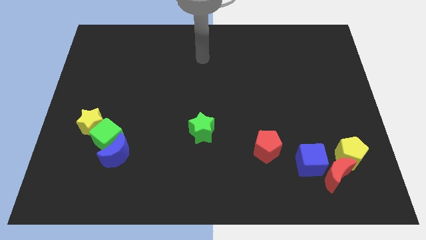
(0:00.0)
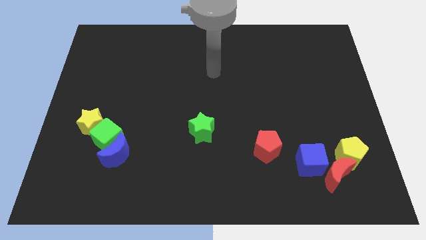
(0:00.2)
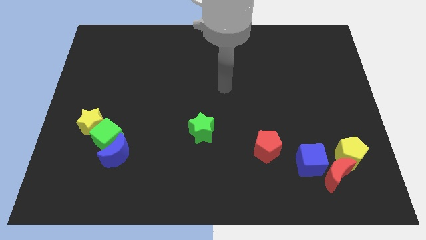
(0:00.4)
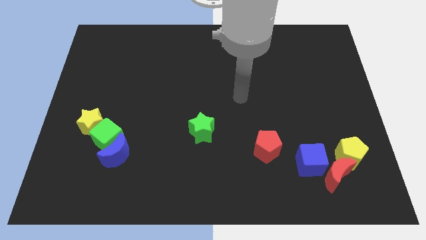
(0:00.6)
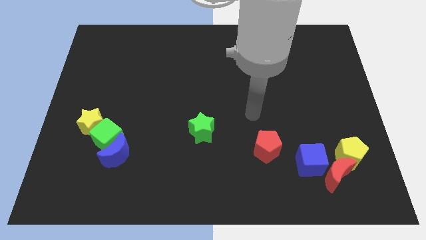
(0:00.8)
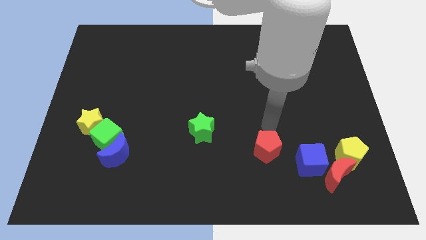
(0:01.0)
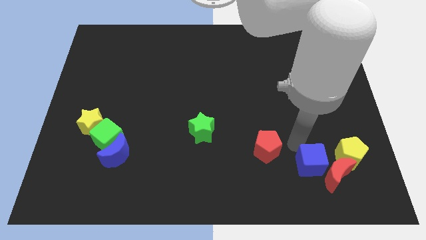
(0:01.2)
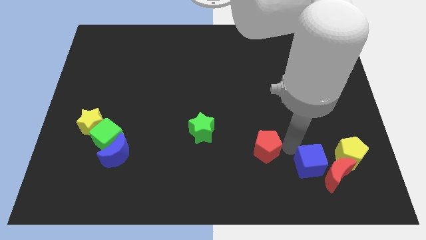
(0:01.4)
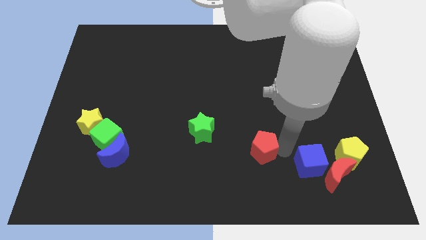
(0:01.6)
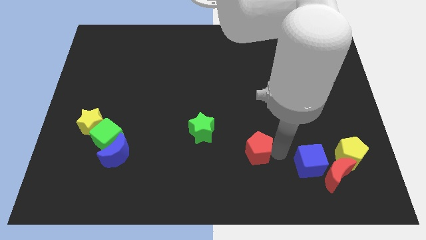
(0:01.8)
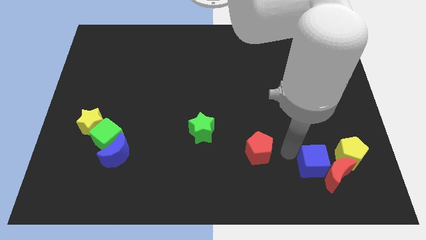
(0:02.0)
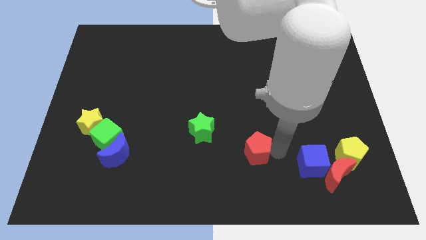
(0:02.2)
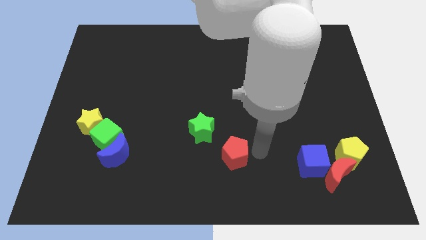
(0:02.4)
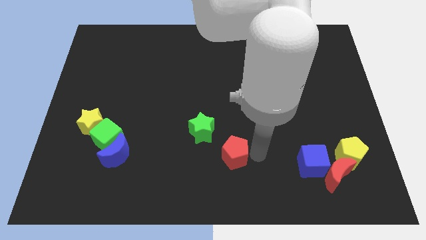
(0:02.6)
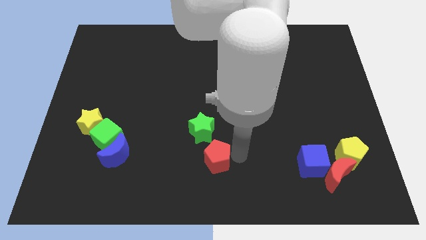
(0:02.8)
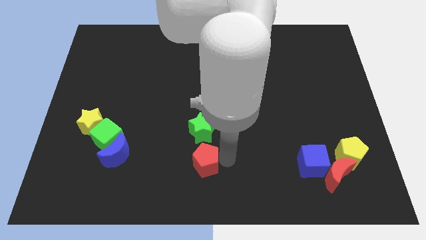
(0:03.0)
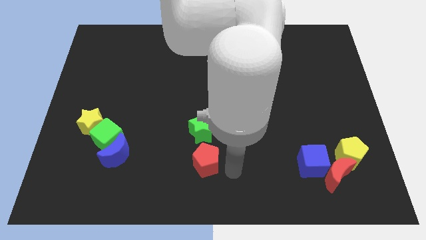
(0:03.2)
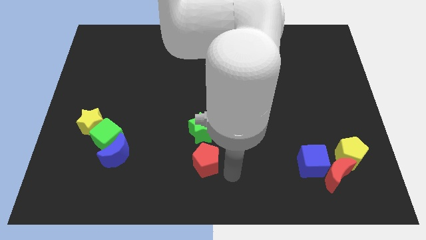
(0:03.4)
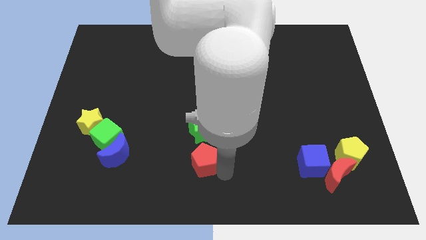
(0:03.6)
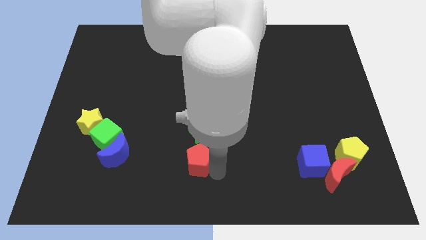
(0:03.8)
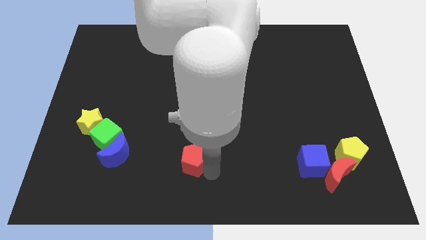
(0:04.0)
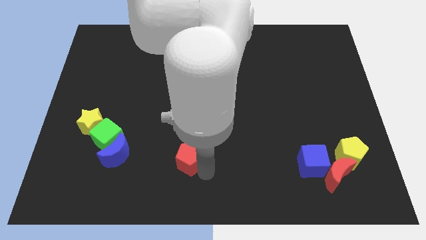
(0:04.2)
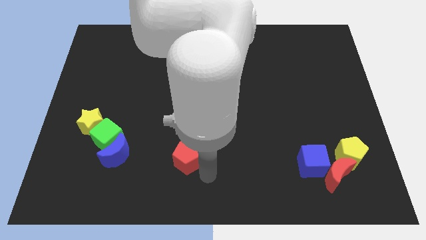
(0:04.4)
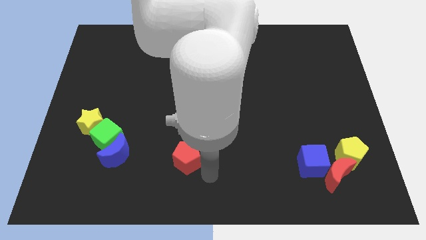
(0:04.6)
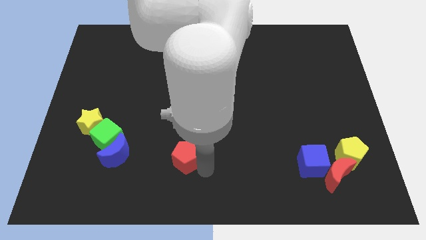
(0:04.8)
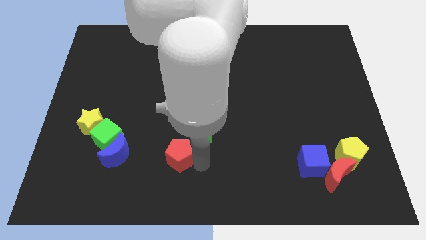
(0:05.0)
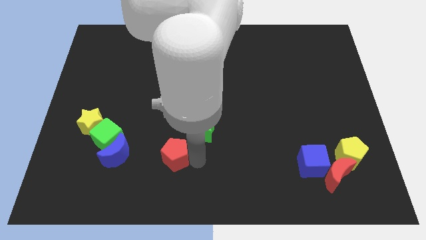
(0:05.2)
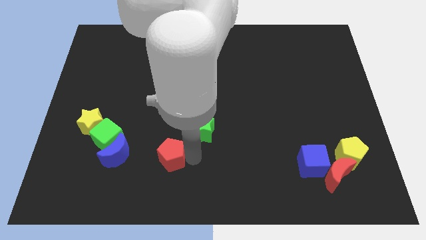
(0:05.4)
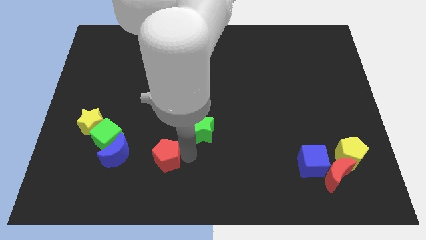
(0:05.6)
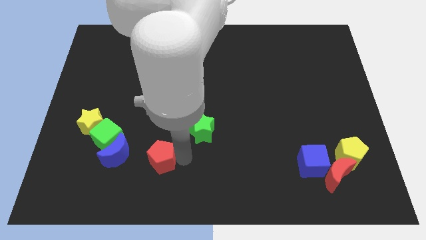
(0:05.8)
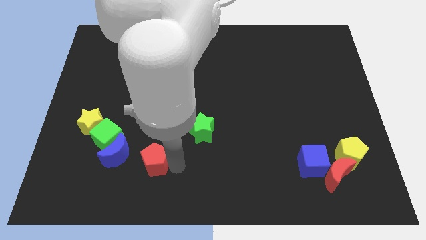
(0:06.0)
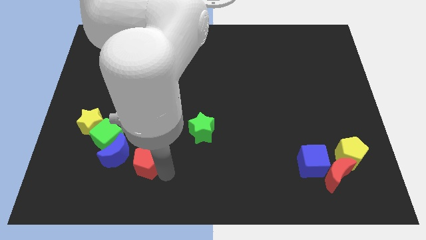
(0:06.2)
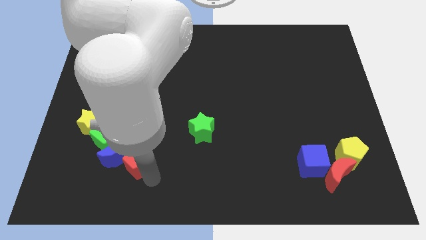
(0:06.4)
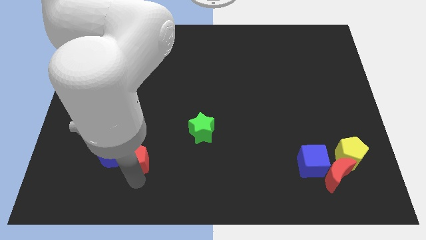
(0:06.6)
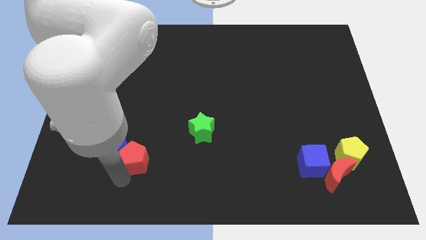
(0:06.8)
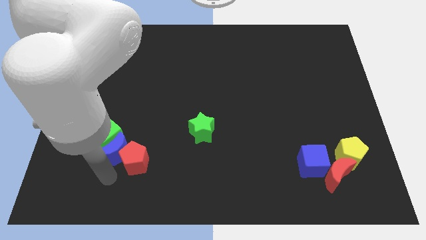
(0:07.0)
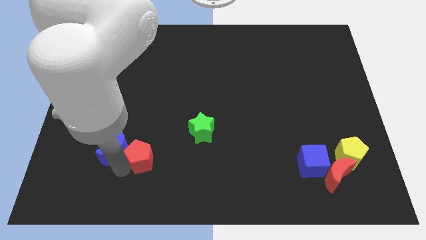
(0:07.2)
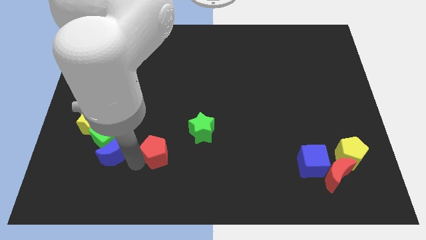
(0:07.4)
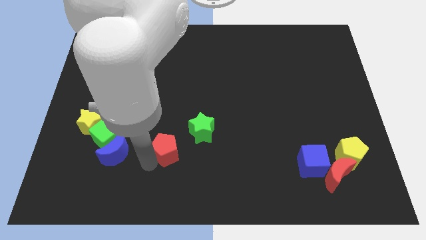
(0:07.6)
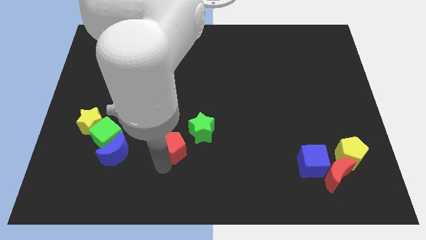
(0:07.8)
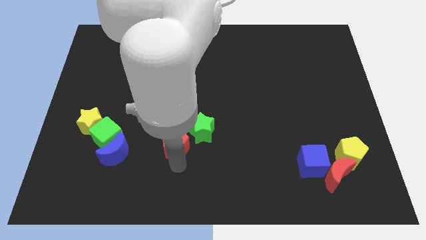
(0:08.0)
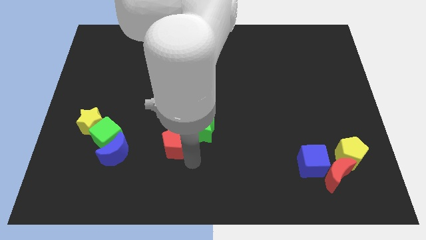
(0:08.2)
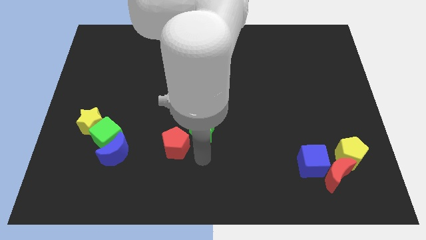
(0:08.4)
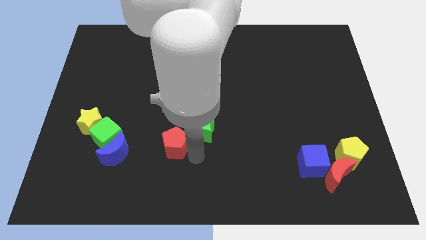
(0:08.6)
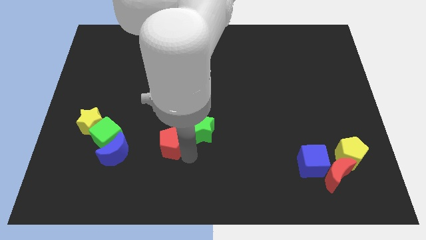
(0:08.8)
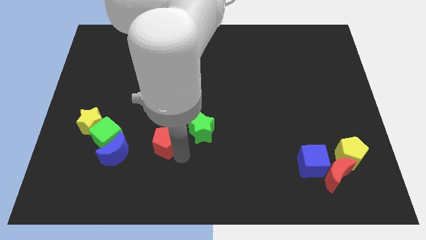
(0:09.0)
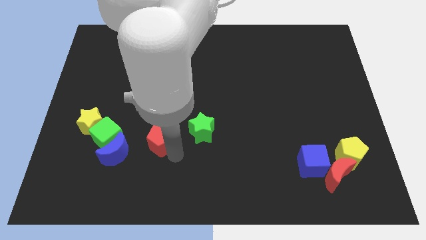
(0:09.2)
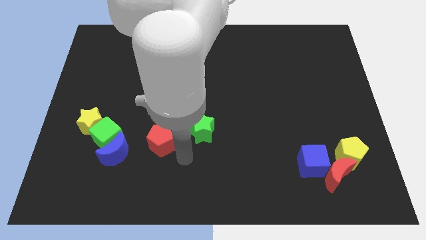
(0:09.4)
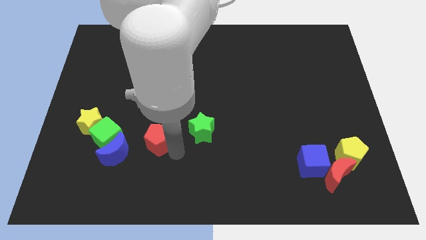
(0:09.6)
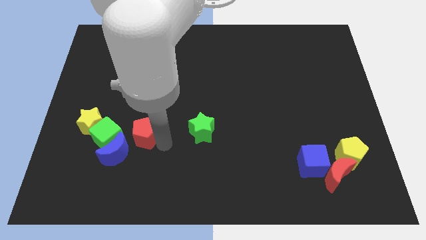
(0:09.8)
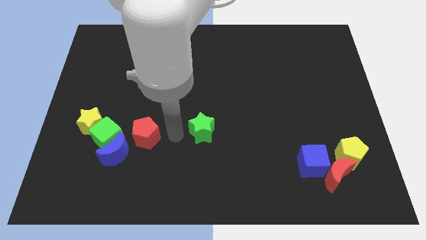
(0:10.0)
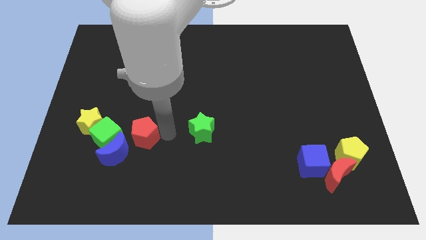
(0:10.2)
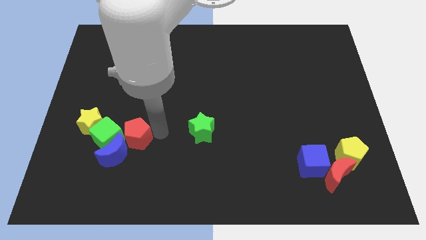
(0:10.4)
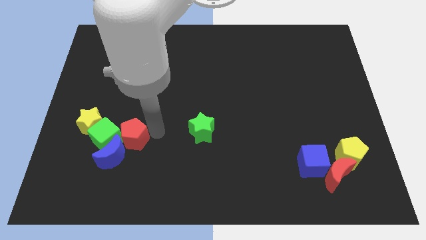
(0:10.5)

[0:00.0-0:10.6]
put the red pentagon next to the green cube

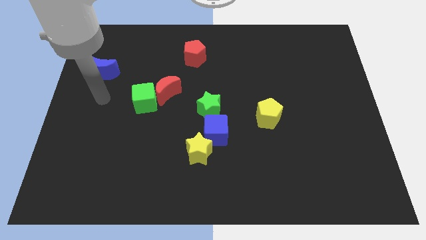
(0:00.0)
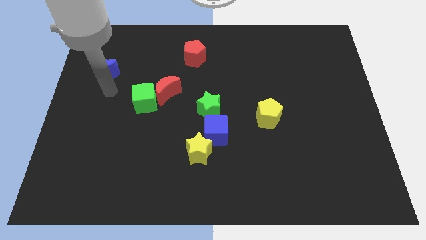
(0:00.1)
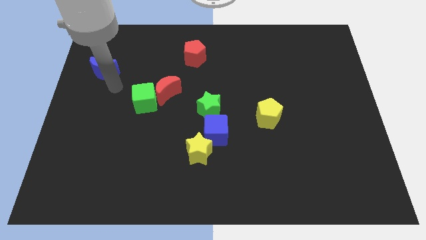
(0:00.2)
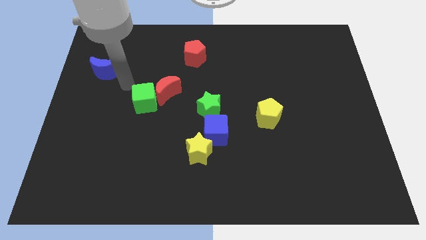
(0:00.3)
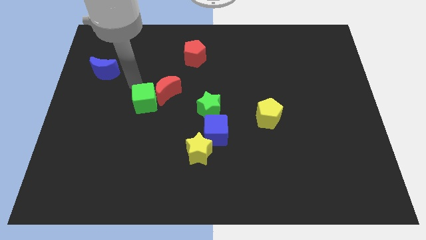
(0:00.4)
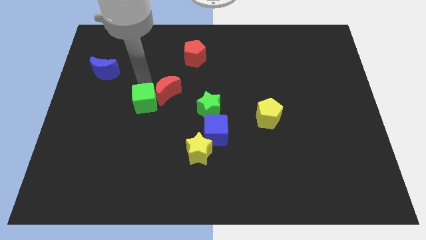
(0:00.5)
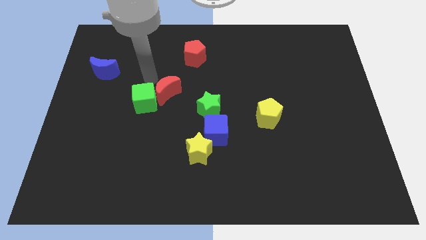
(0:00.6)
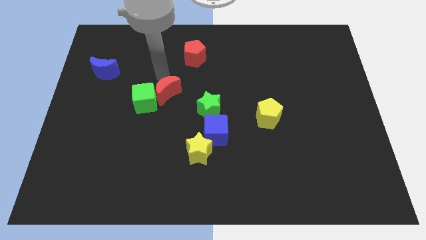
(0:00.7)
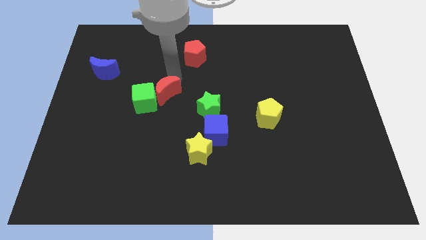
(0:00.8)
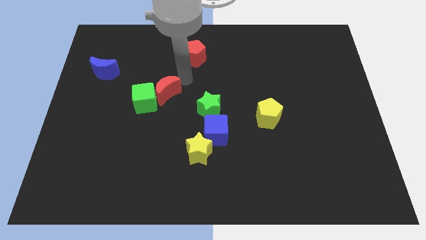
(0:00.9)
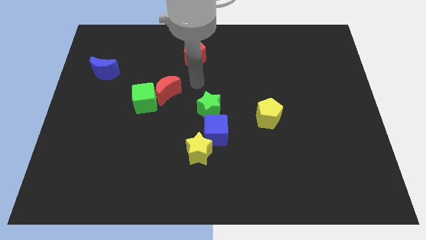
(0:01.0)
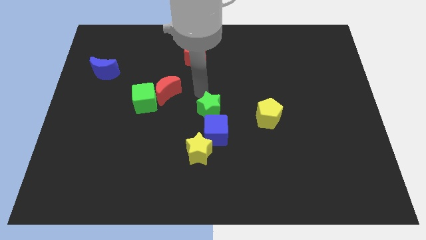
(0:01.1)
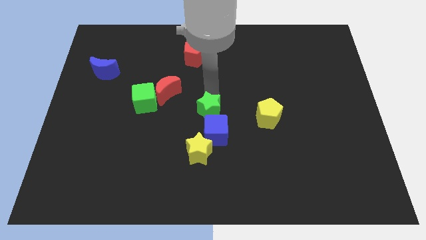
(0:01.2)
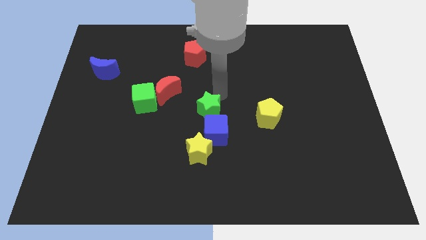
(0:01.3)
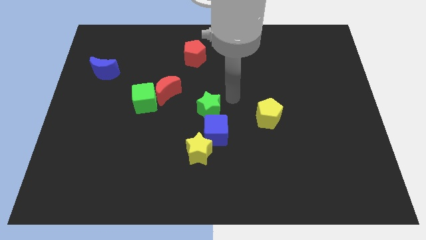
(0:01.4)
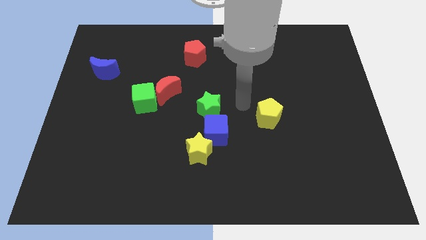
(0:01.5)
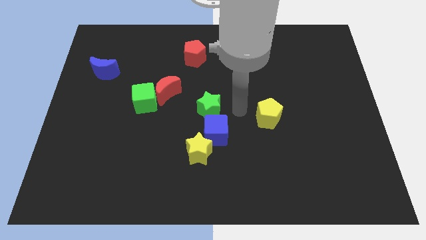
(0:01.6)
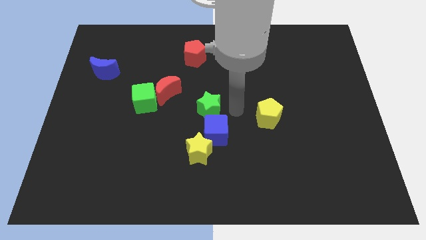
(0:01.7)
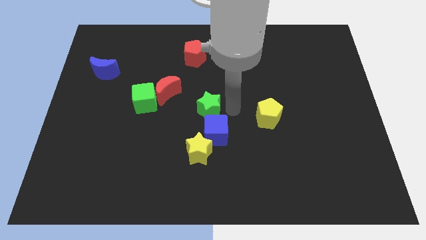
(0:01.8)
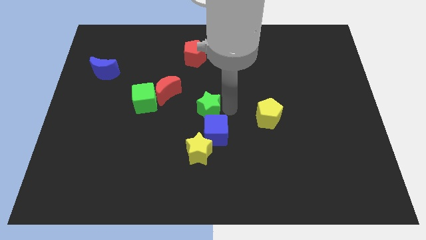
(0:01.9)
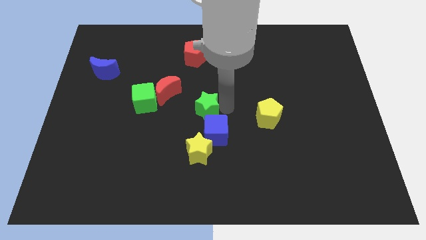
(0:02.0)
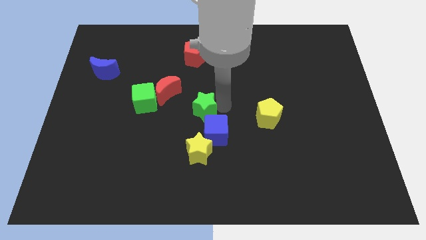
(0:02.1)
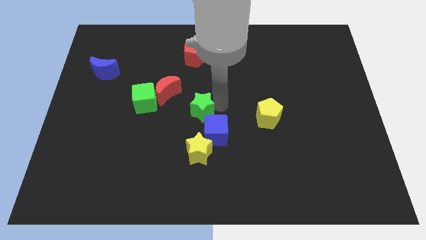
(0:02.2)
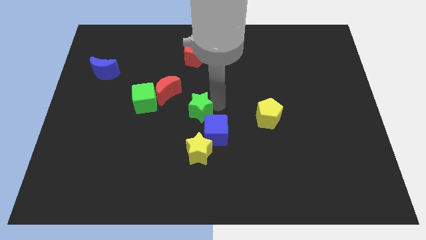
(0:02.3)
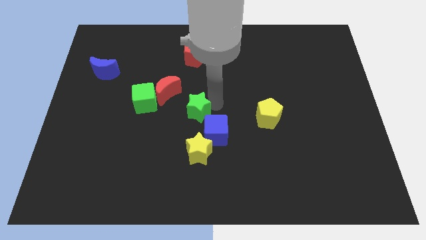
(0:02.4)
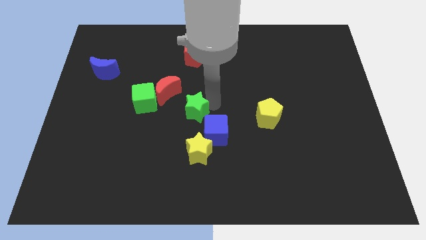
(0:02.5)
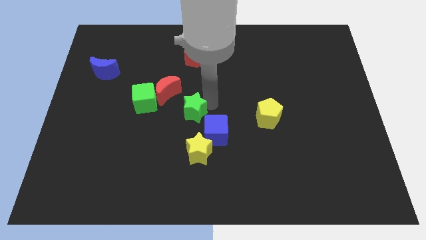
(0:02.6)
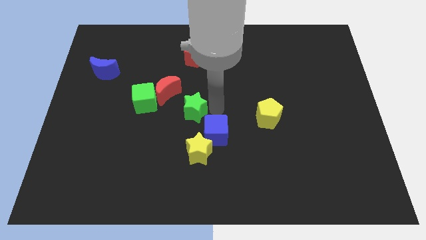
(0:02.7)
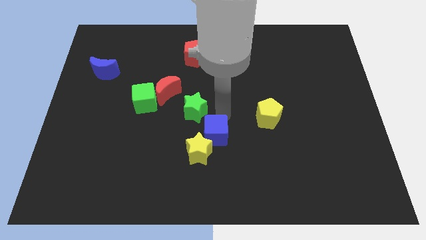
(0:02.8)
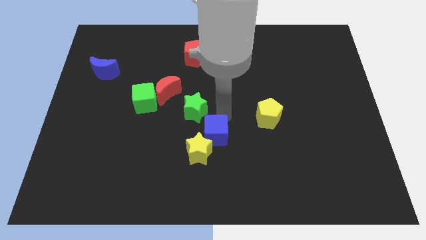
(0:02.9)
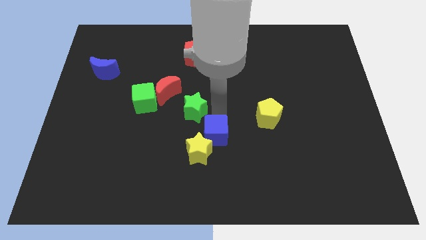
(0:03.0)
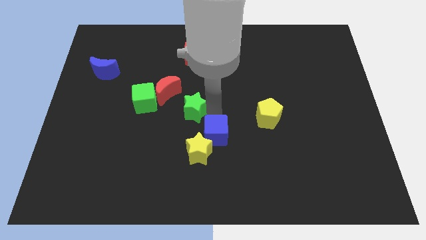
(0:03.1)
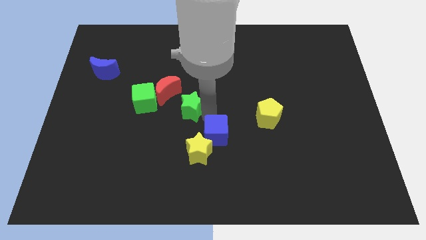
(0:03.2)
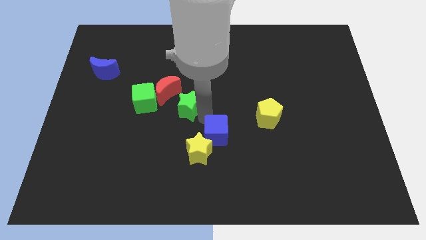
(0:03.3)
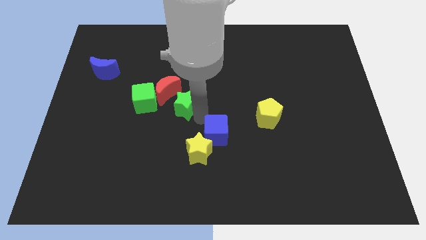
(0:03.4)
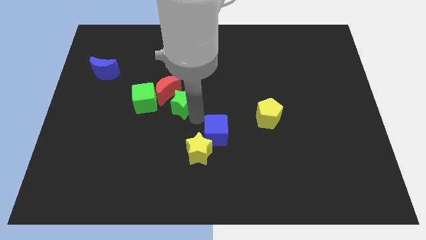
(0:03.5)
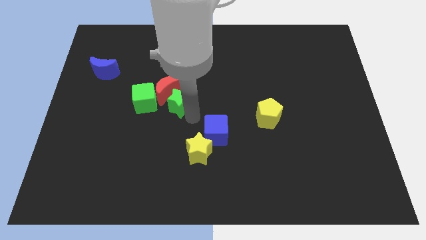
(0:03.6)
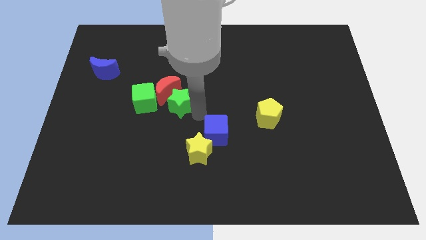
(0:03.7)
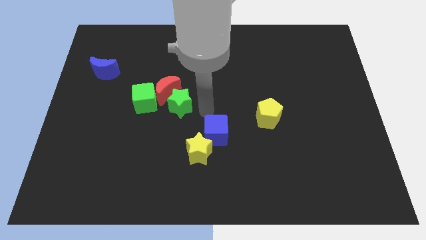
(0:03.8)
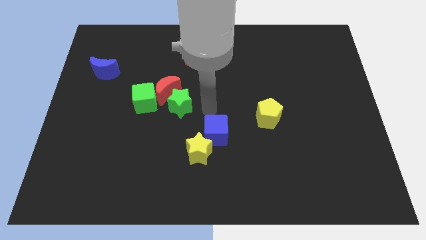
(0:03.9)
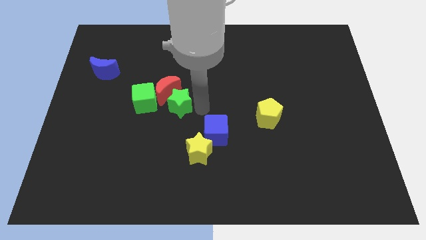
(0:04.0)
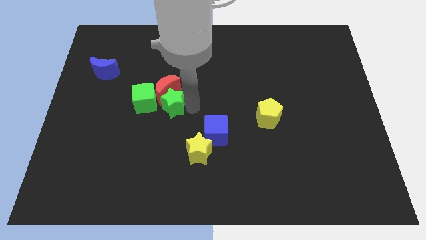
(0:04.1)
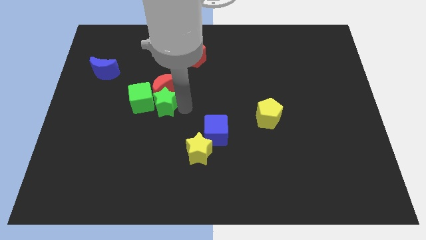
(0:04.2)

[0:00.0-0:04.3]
put the green star towards the green cube
